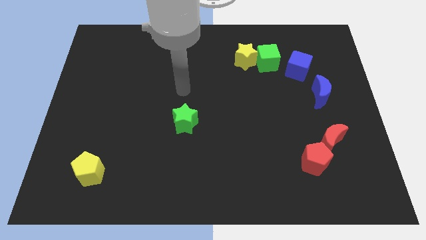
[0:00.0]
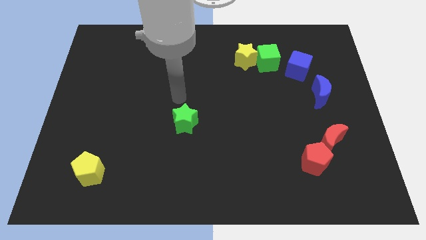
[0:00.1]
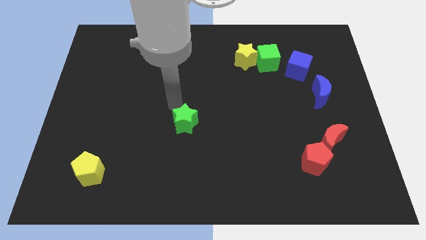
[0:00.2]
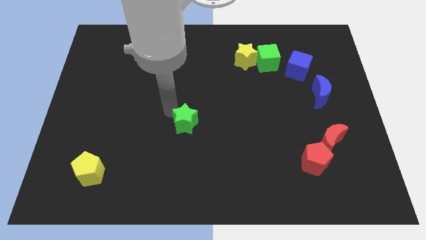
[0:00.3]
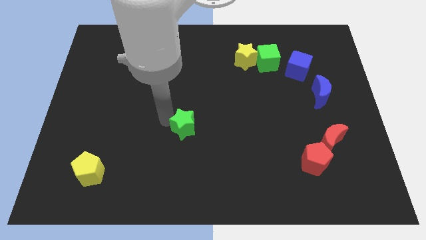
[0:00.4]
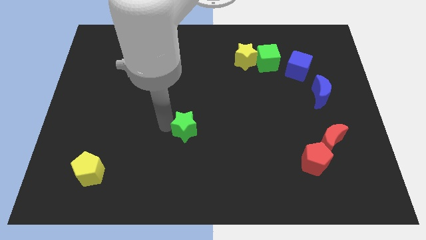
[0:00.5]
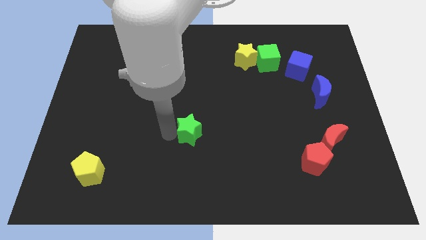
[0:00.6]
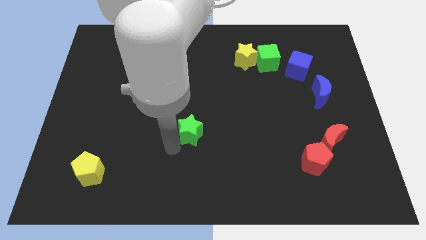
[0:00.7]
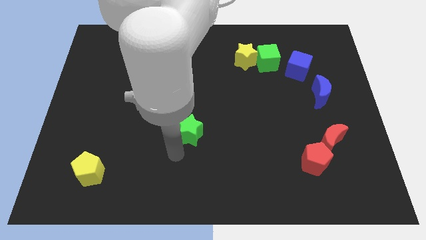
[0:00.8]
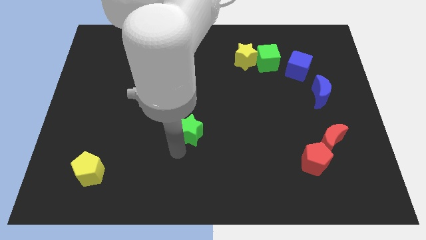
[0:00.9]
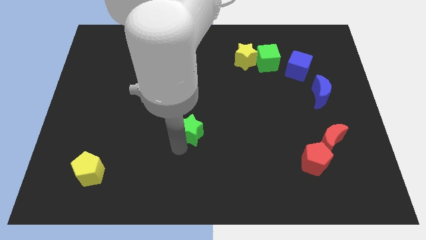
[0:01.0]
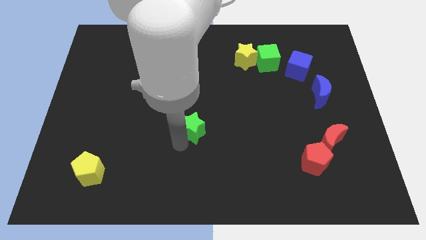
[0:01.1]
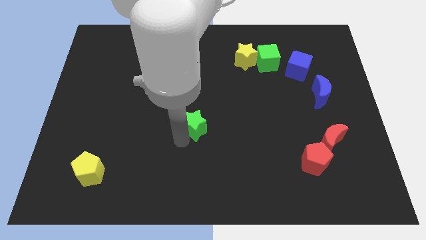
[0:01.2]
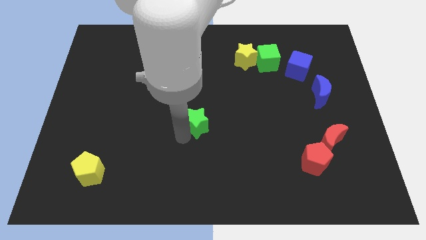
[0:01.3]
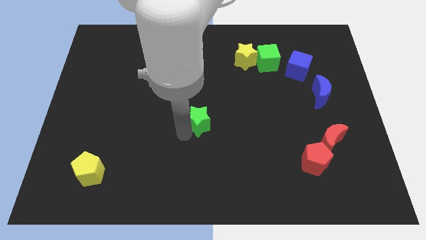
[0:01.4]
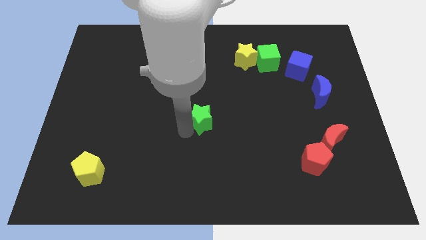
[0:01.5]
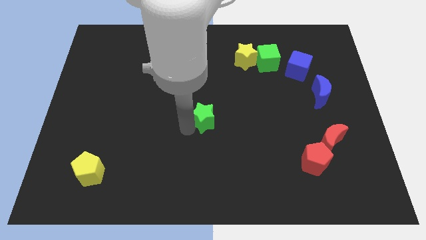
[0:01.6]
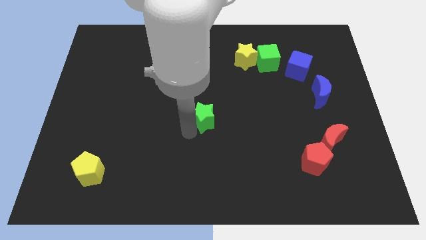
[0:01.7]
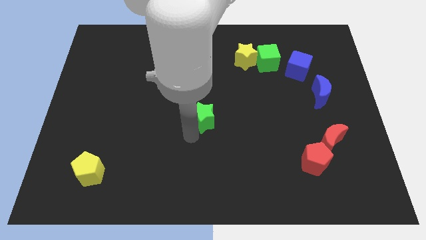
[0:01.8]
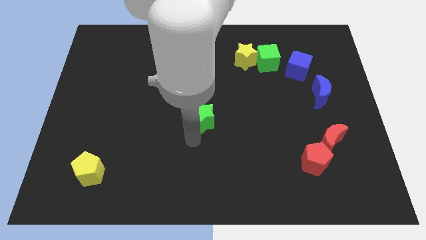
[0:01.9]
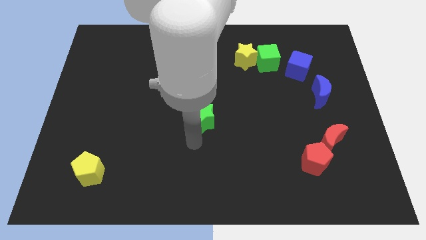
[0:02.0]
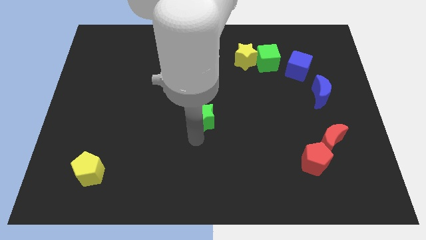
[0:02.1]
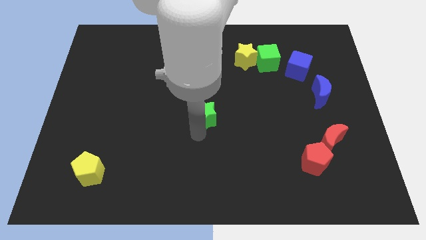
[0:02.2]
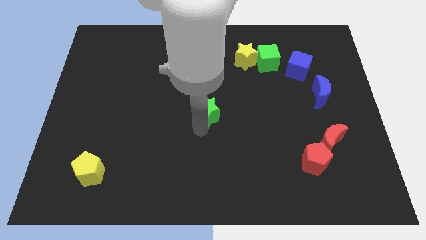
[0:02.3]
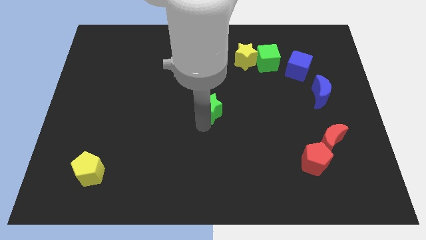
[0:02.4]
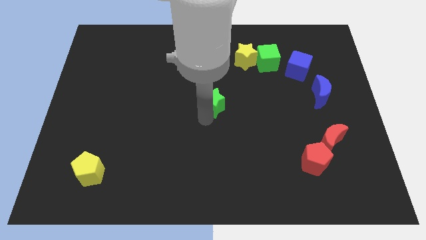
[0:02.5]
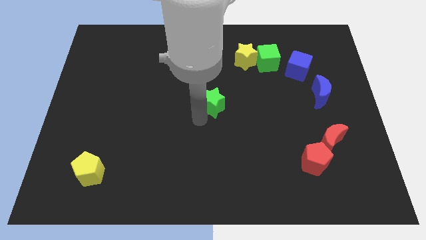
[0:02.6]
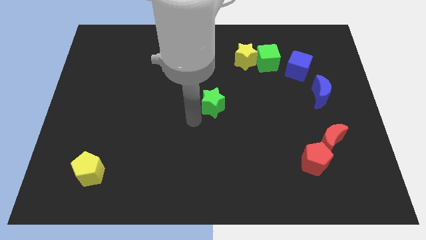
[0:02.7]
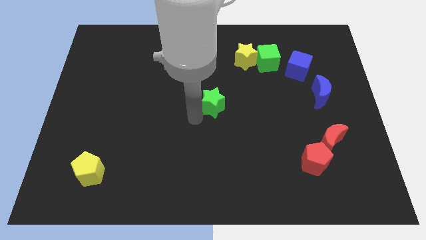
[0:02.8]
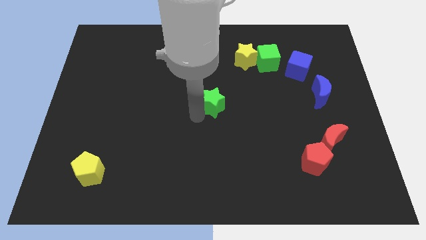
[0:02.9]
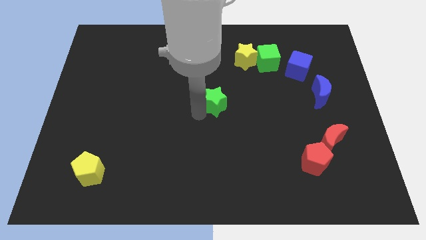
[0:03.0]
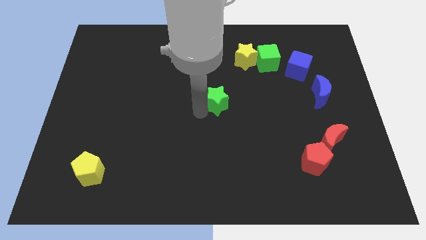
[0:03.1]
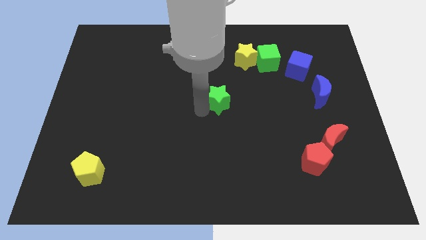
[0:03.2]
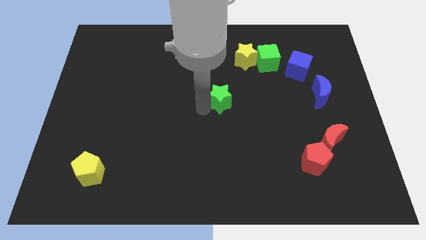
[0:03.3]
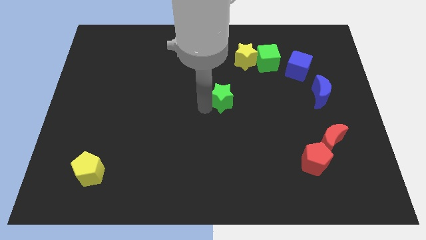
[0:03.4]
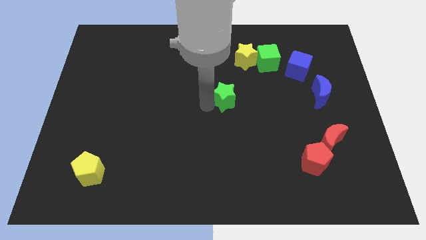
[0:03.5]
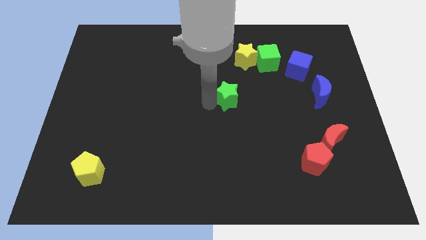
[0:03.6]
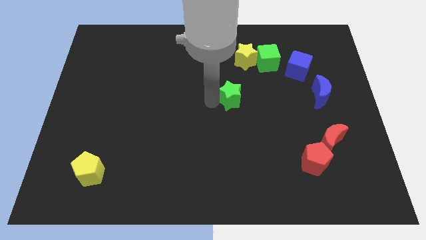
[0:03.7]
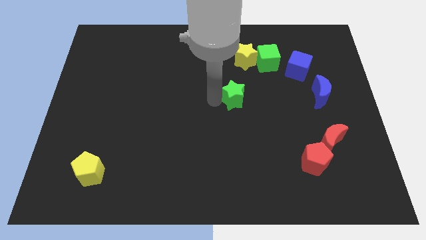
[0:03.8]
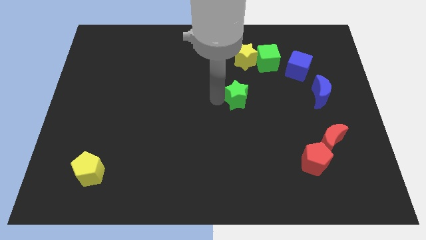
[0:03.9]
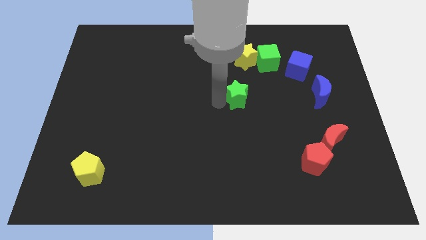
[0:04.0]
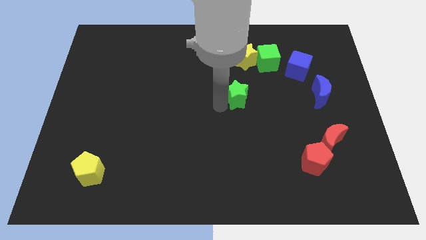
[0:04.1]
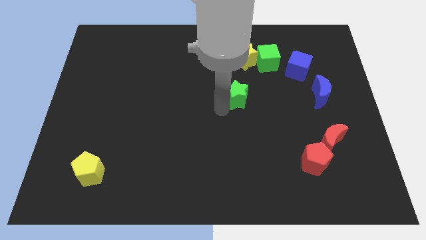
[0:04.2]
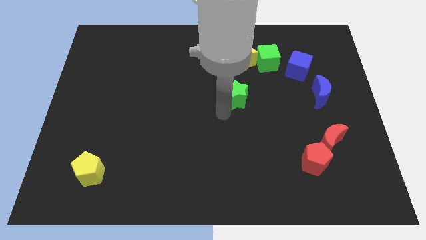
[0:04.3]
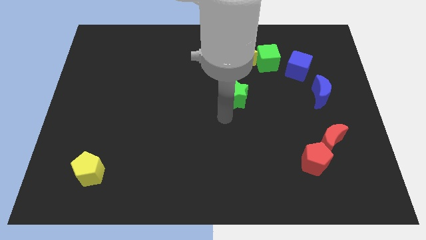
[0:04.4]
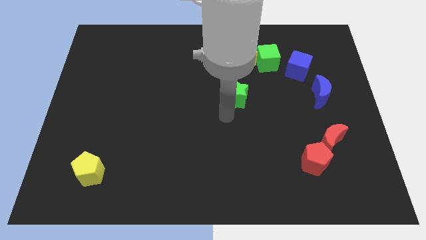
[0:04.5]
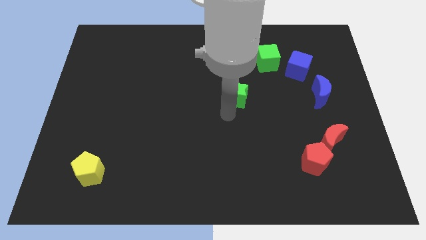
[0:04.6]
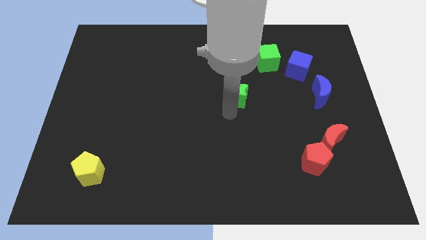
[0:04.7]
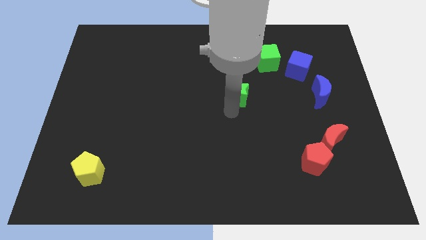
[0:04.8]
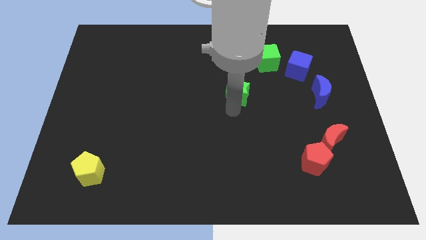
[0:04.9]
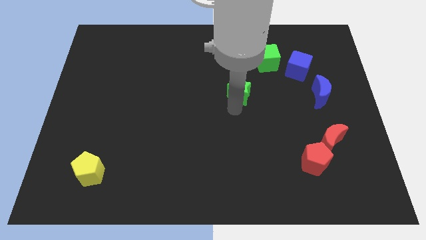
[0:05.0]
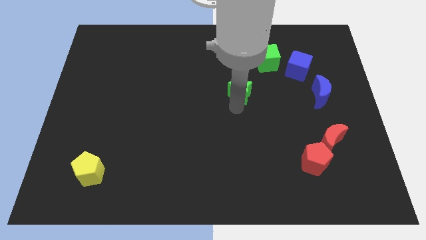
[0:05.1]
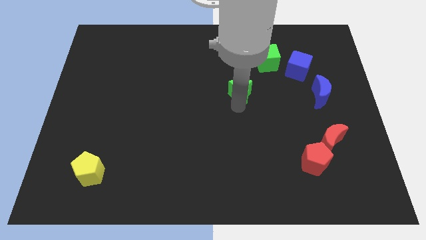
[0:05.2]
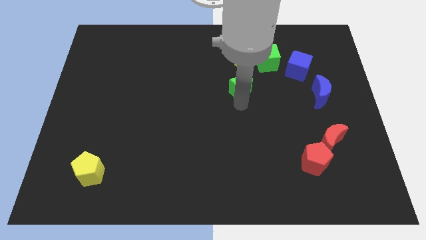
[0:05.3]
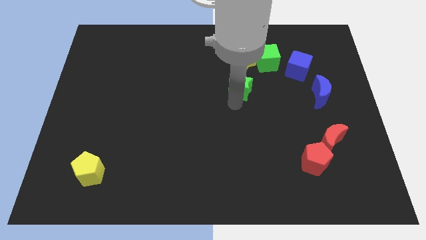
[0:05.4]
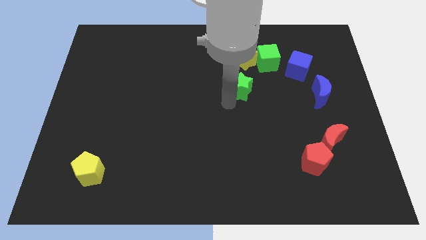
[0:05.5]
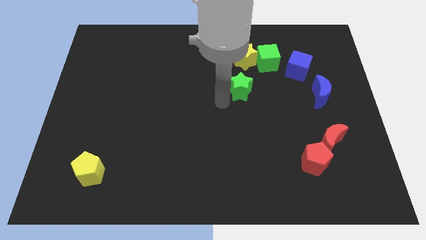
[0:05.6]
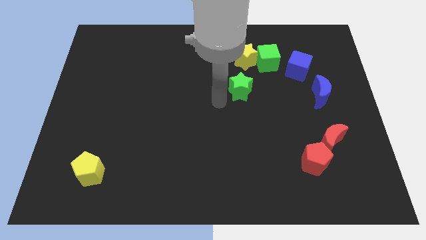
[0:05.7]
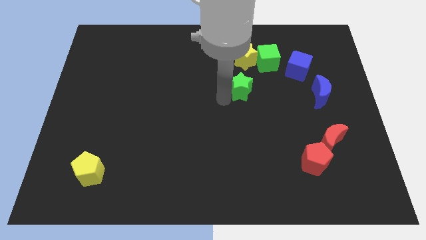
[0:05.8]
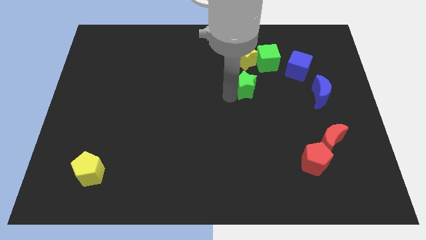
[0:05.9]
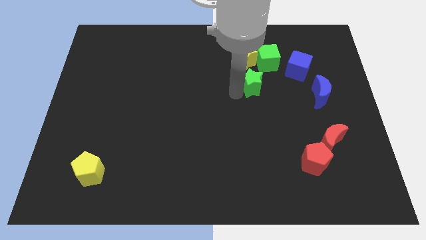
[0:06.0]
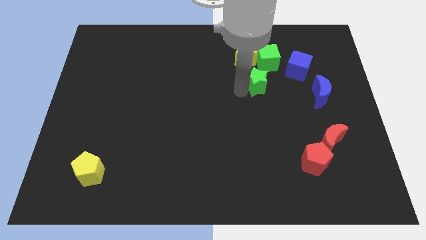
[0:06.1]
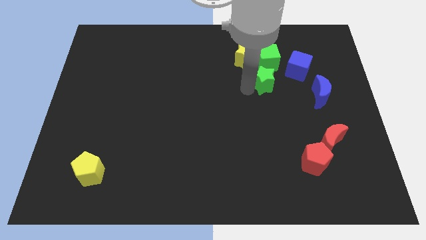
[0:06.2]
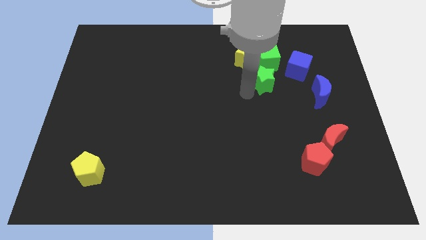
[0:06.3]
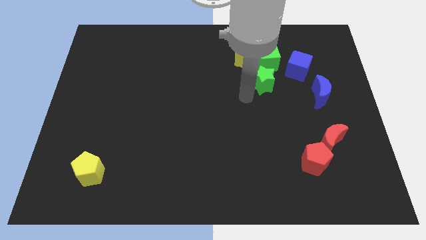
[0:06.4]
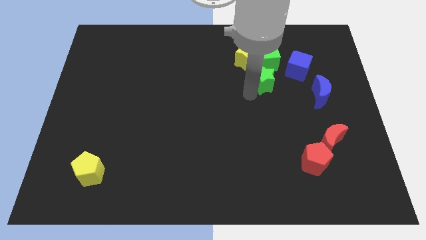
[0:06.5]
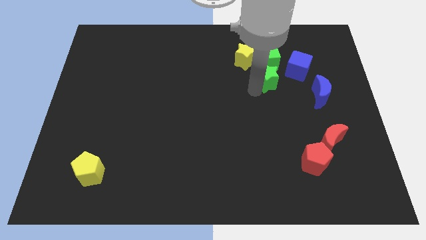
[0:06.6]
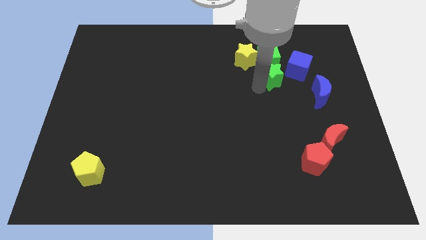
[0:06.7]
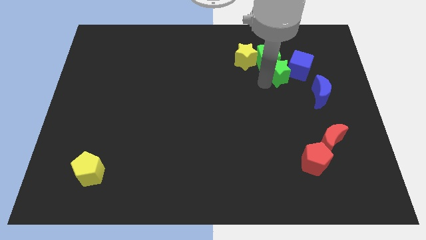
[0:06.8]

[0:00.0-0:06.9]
push the green star close to the blue cube
